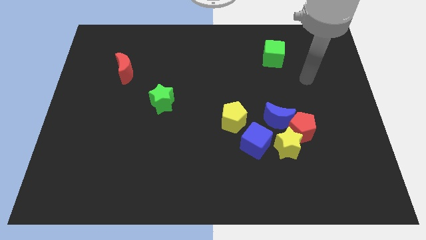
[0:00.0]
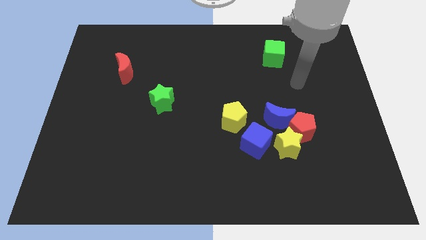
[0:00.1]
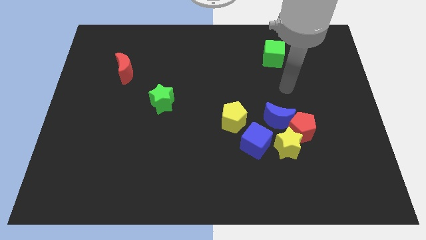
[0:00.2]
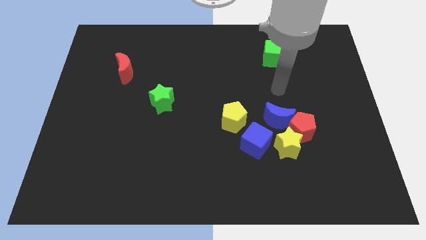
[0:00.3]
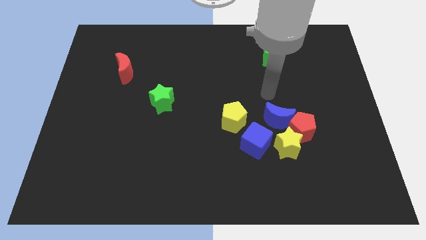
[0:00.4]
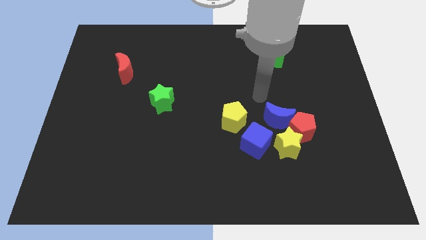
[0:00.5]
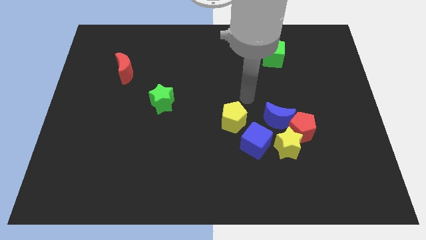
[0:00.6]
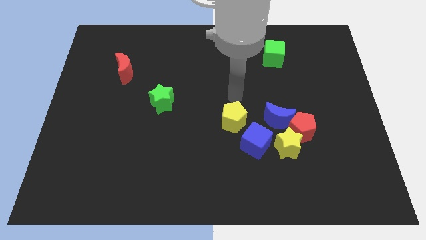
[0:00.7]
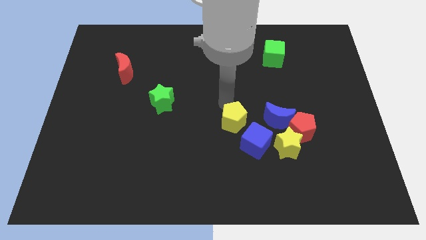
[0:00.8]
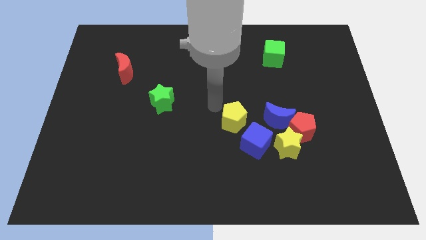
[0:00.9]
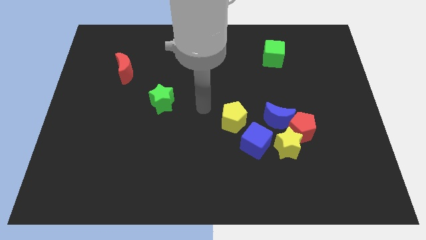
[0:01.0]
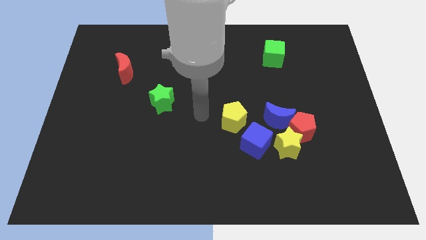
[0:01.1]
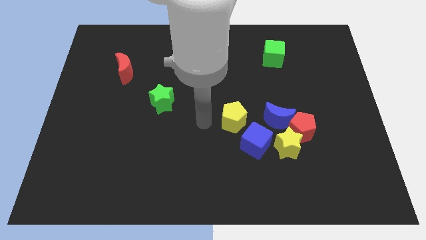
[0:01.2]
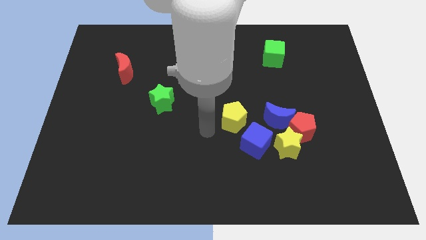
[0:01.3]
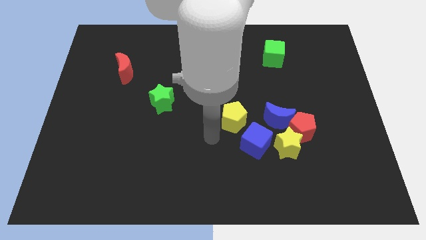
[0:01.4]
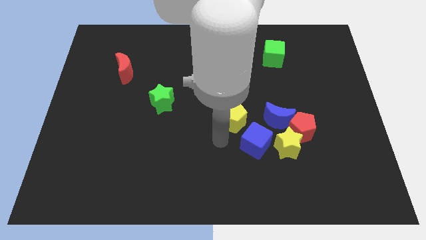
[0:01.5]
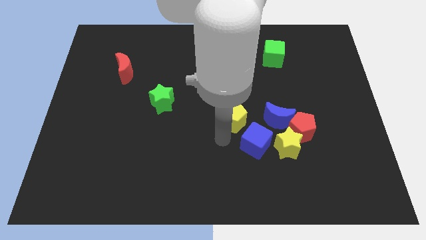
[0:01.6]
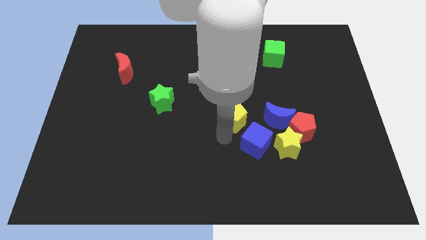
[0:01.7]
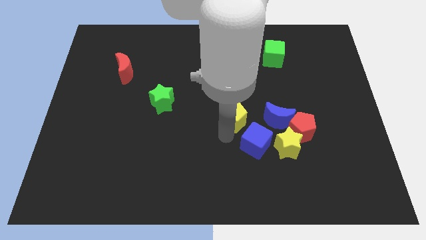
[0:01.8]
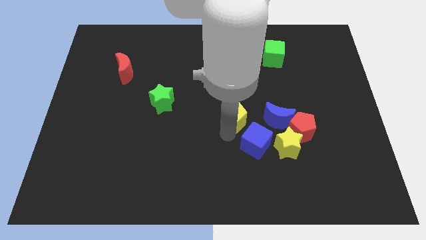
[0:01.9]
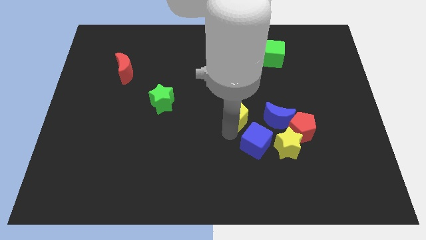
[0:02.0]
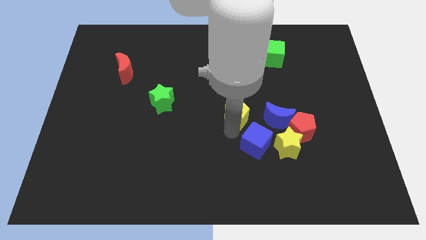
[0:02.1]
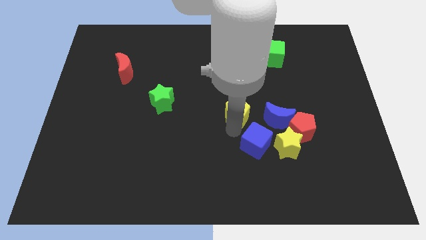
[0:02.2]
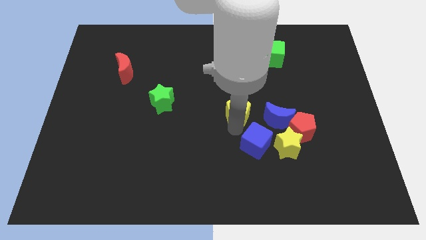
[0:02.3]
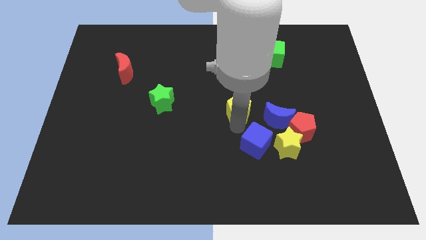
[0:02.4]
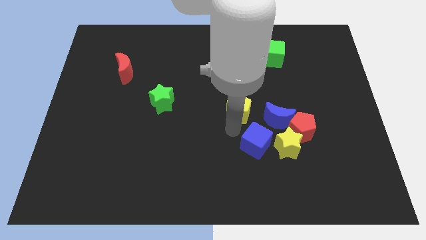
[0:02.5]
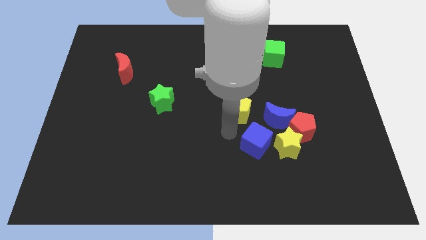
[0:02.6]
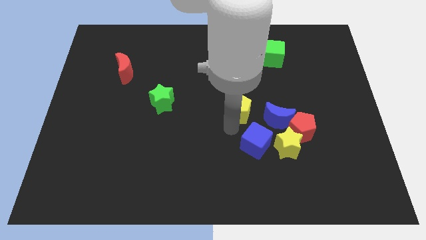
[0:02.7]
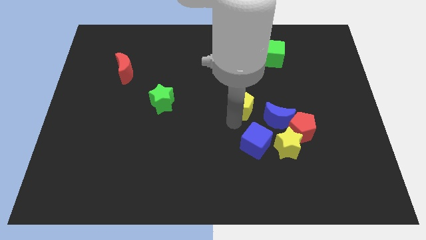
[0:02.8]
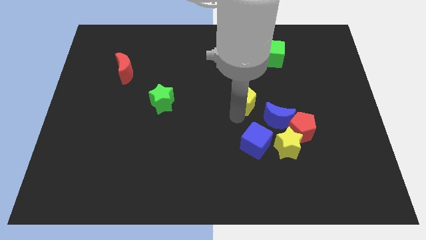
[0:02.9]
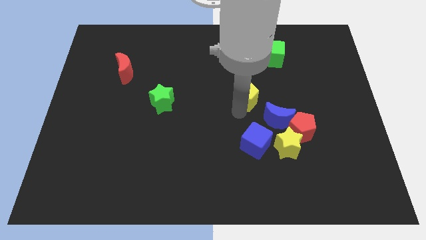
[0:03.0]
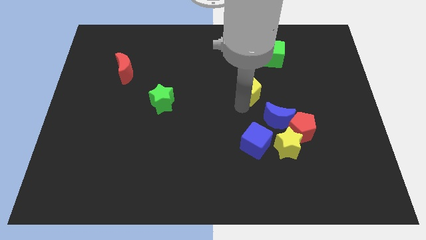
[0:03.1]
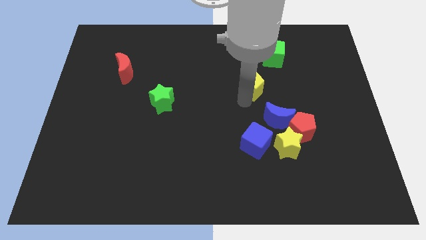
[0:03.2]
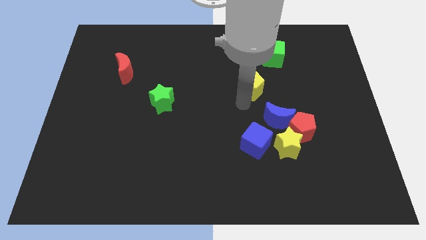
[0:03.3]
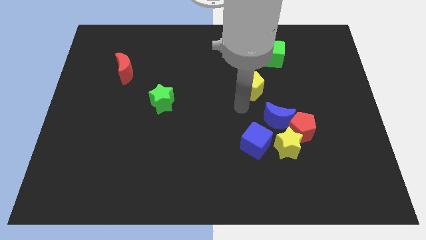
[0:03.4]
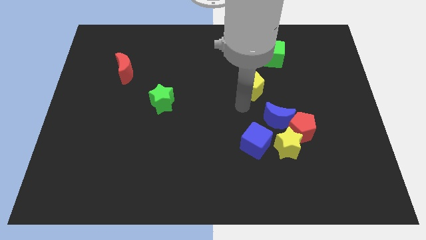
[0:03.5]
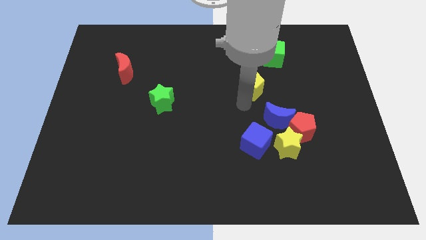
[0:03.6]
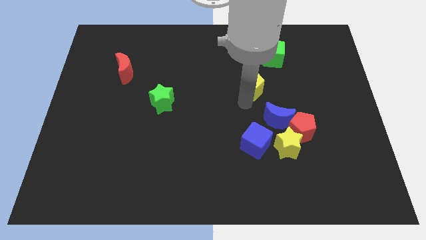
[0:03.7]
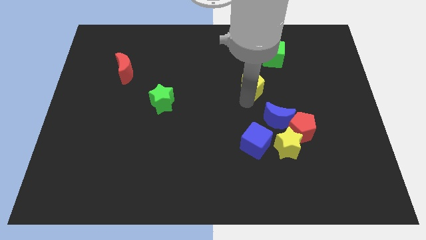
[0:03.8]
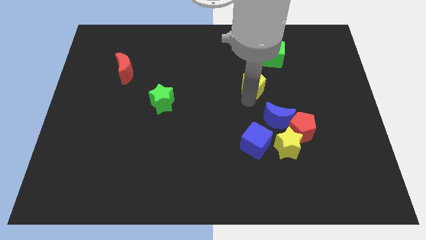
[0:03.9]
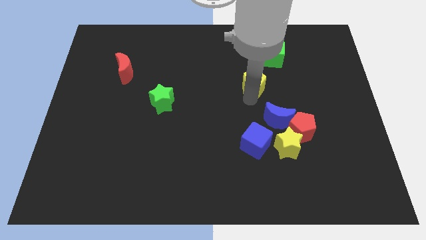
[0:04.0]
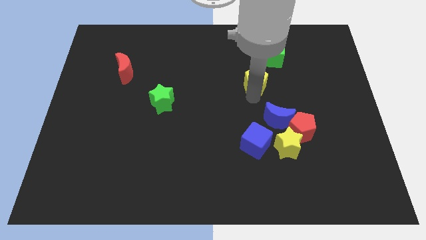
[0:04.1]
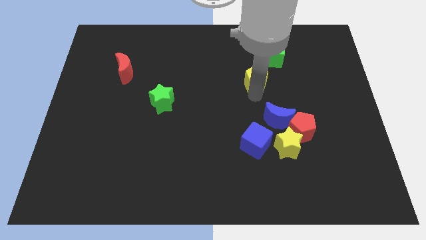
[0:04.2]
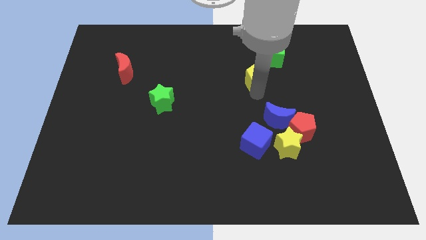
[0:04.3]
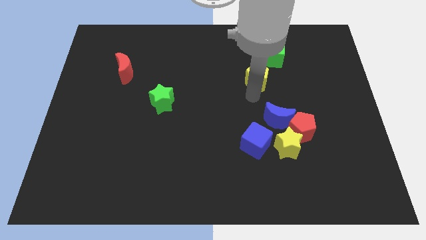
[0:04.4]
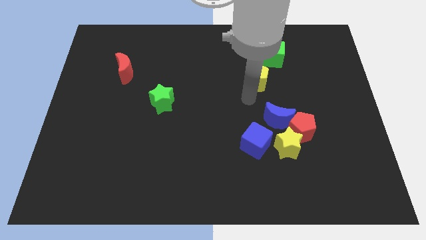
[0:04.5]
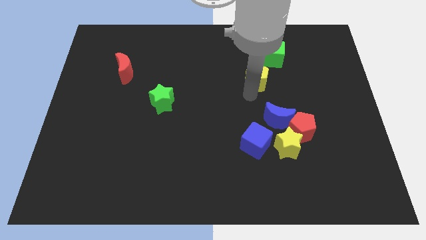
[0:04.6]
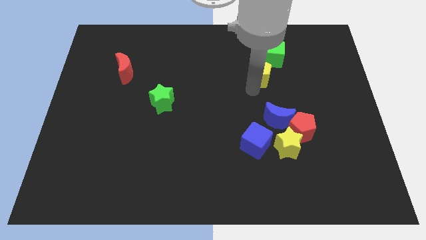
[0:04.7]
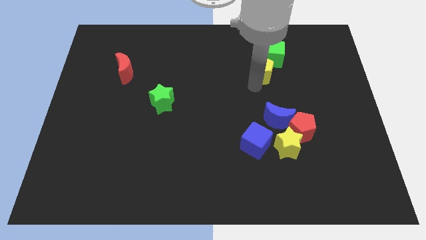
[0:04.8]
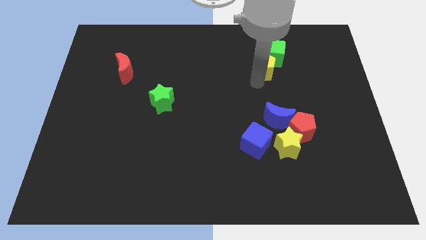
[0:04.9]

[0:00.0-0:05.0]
push the yellow pentagon to the green cube

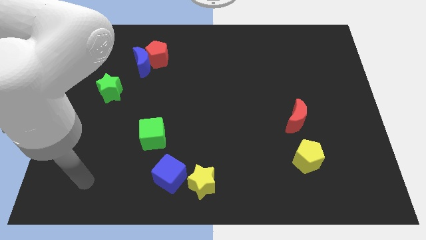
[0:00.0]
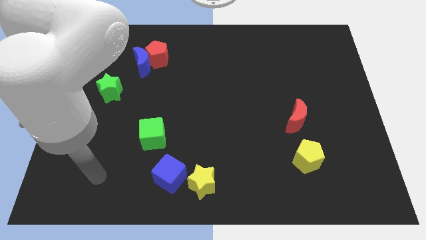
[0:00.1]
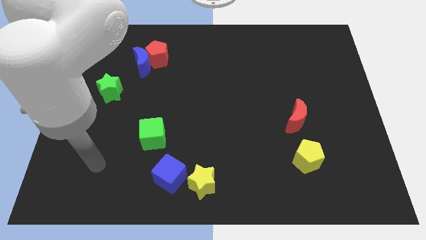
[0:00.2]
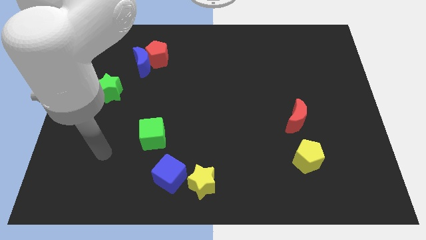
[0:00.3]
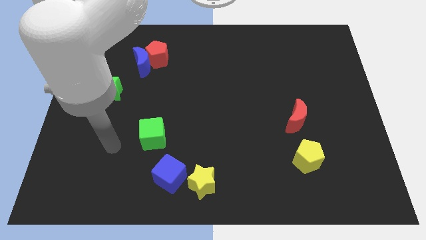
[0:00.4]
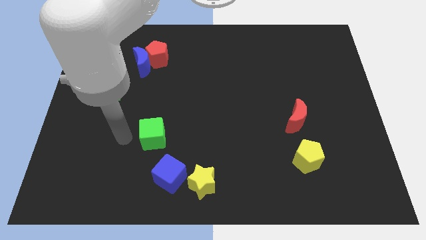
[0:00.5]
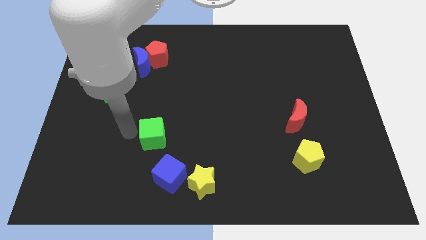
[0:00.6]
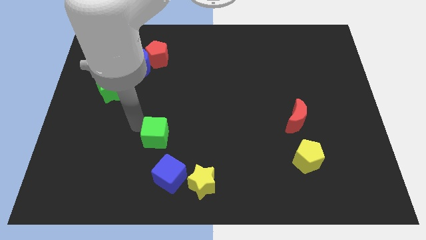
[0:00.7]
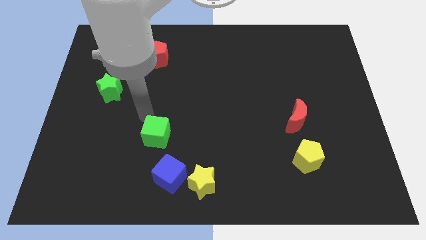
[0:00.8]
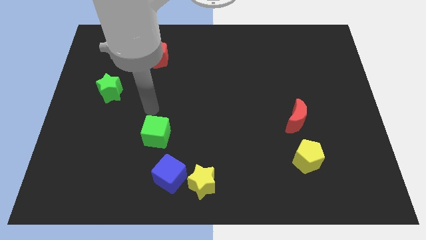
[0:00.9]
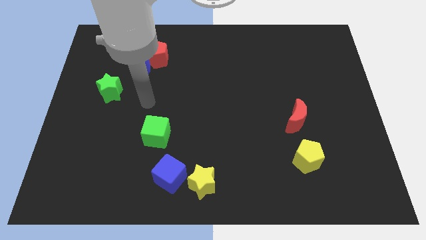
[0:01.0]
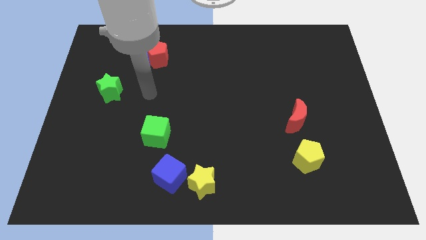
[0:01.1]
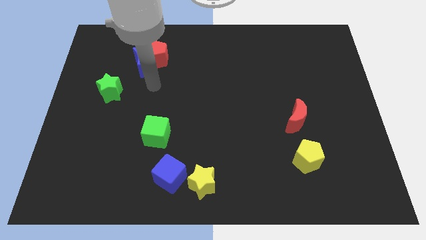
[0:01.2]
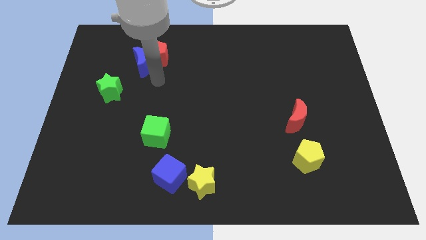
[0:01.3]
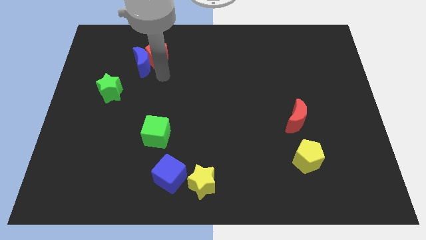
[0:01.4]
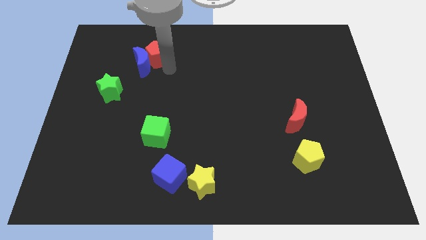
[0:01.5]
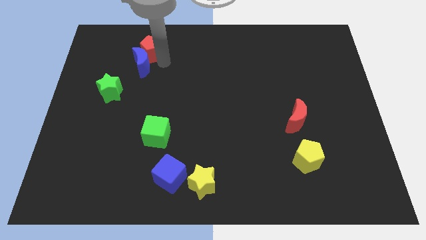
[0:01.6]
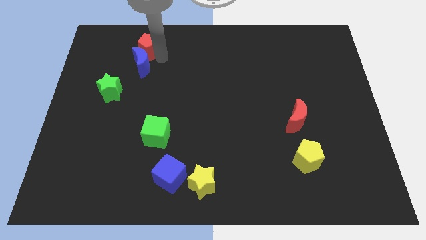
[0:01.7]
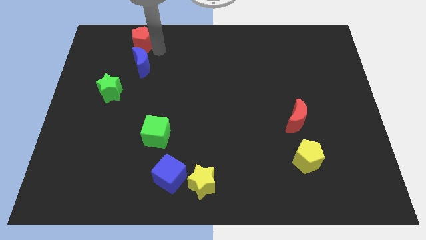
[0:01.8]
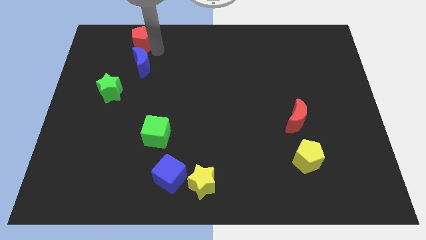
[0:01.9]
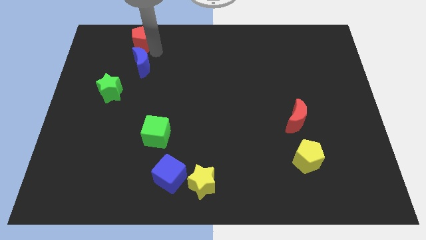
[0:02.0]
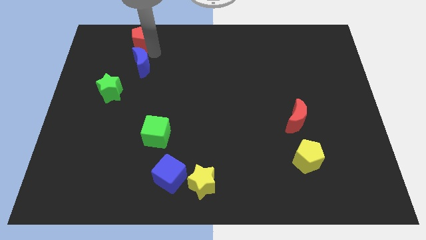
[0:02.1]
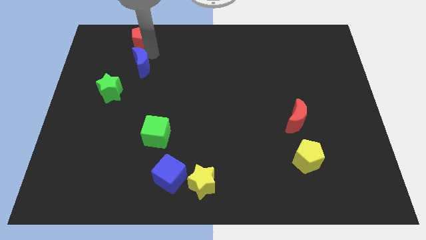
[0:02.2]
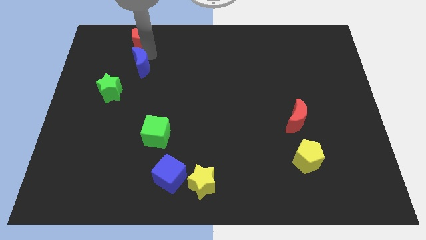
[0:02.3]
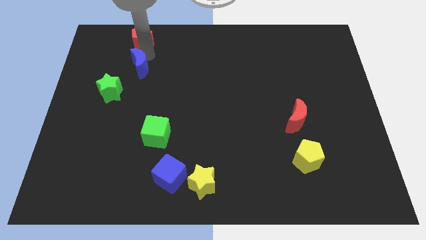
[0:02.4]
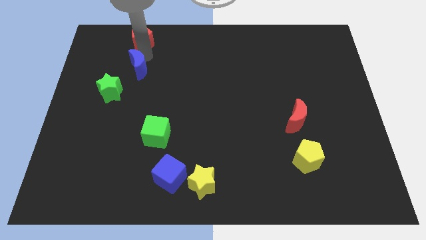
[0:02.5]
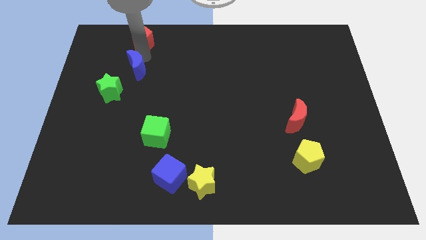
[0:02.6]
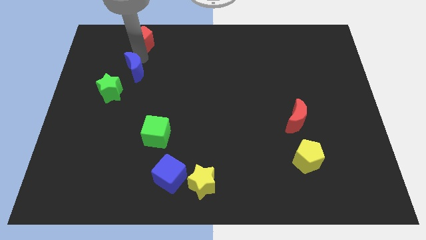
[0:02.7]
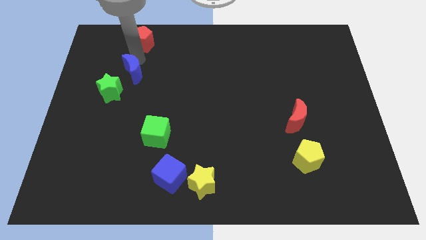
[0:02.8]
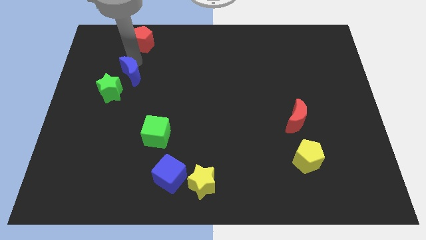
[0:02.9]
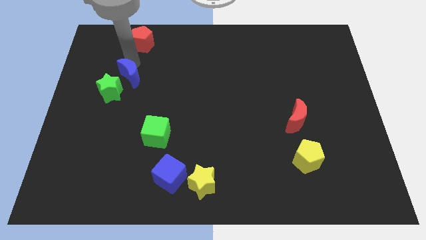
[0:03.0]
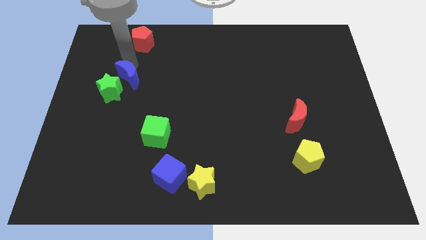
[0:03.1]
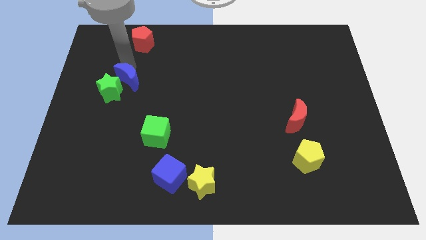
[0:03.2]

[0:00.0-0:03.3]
slide the blue moon close to the green star
